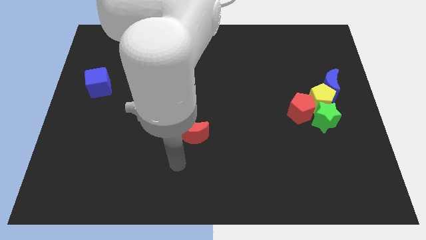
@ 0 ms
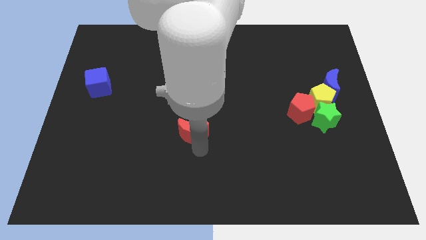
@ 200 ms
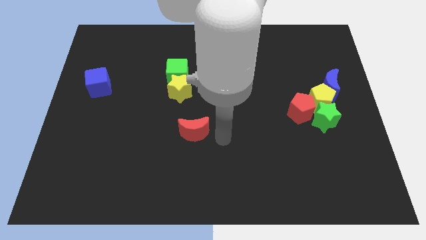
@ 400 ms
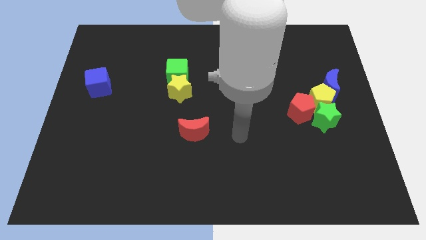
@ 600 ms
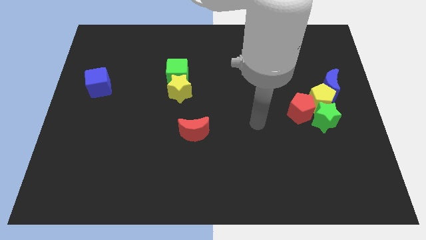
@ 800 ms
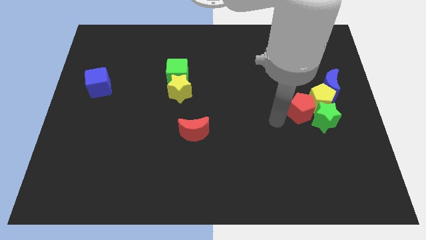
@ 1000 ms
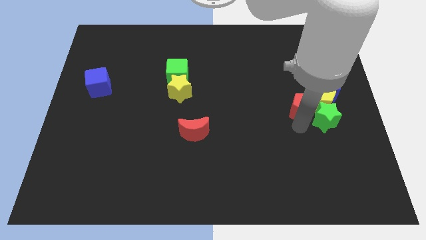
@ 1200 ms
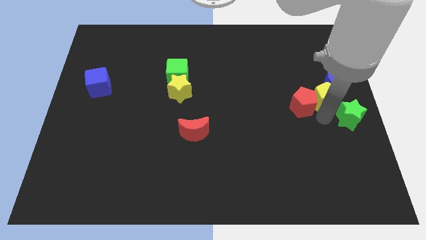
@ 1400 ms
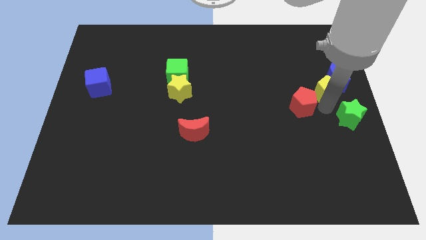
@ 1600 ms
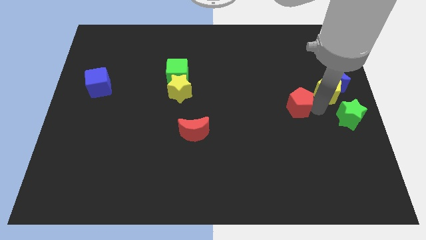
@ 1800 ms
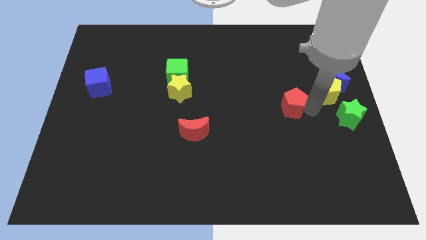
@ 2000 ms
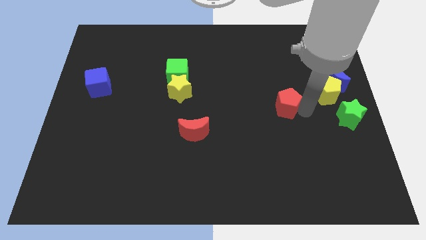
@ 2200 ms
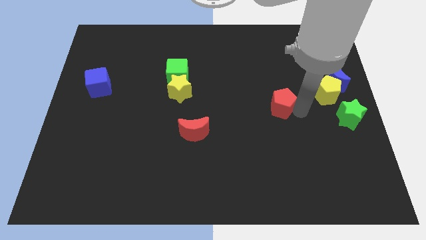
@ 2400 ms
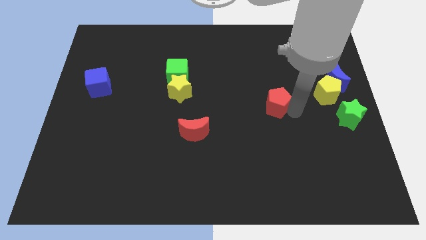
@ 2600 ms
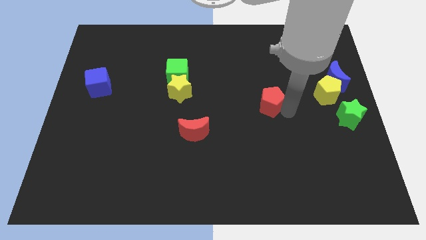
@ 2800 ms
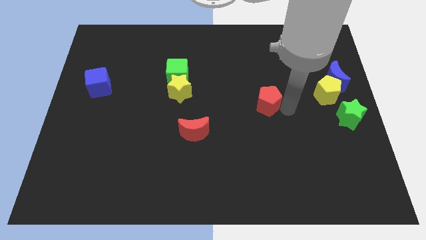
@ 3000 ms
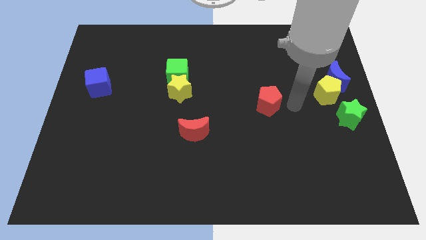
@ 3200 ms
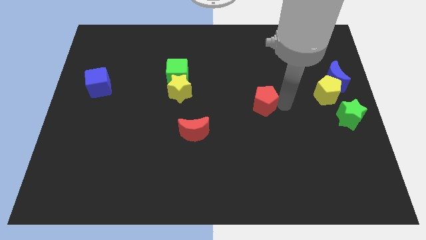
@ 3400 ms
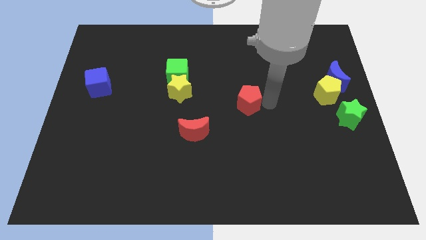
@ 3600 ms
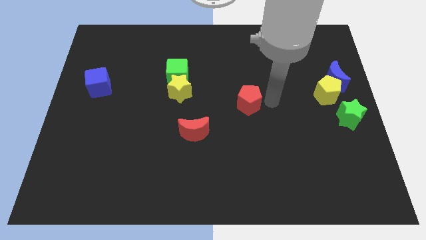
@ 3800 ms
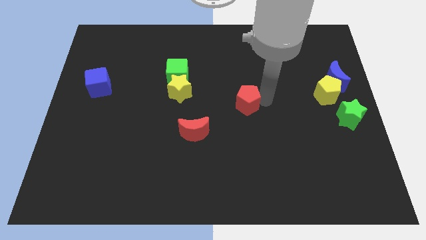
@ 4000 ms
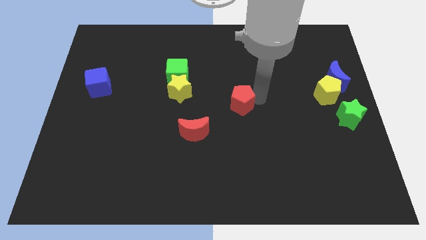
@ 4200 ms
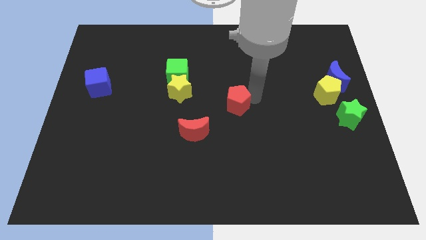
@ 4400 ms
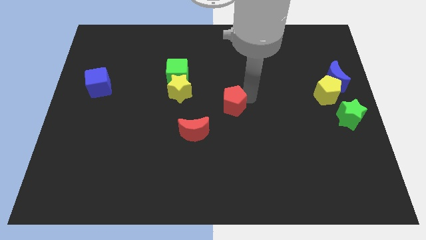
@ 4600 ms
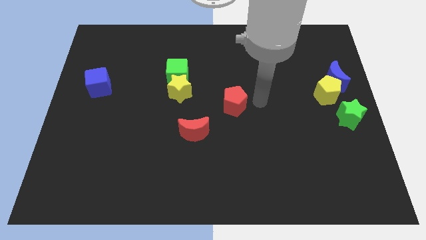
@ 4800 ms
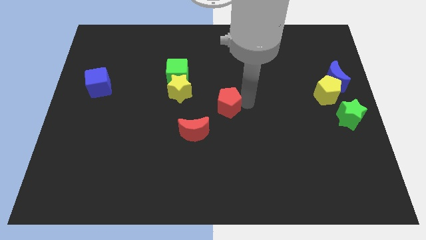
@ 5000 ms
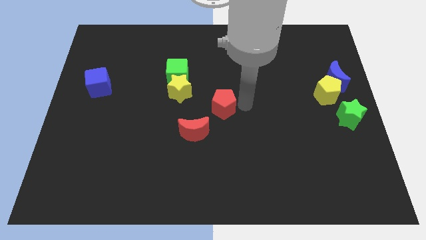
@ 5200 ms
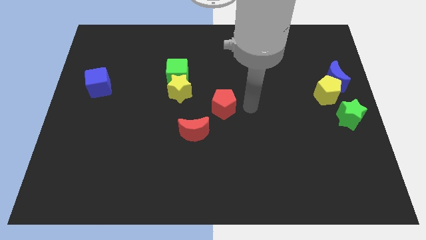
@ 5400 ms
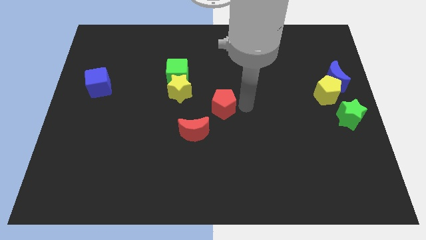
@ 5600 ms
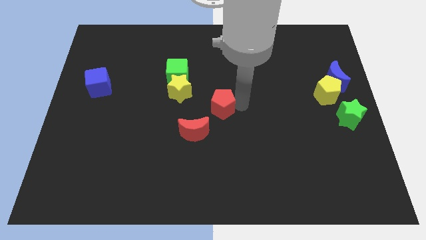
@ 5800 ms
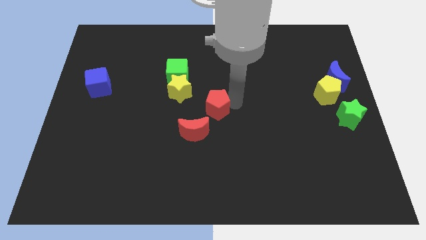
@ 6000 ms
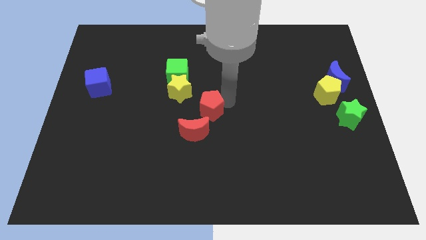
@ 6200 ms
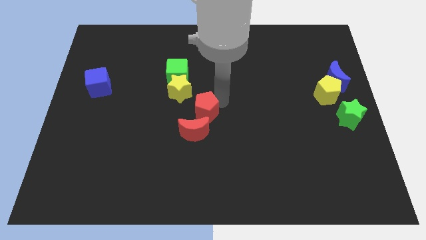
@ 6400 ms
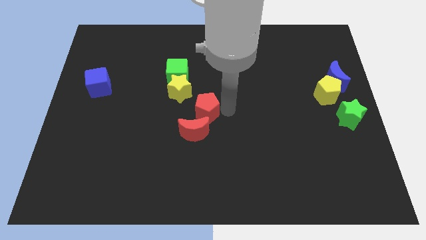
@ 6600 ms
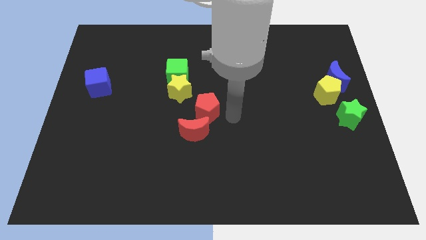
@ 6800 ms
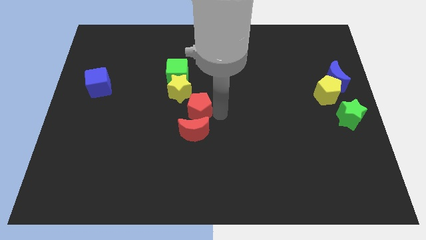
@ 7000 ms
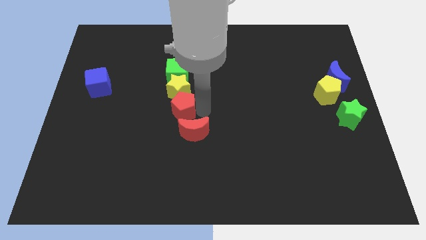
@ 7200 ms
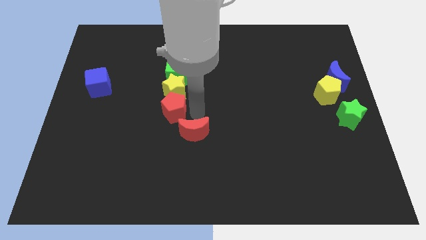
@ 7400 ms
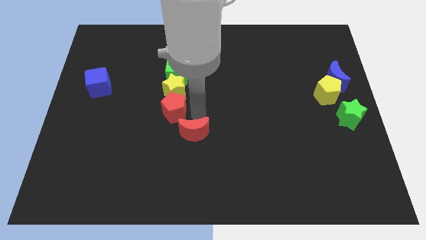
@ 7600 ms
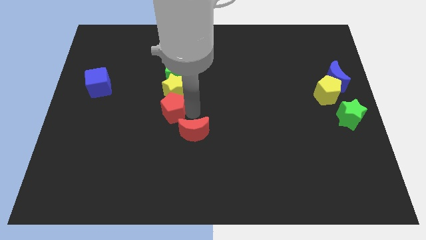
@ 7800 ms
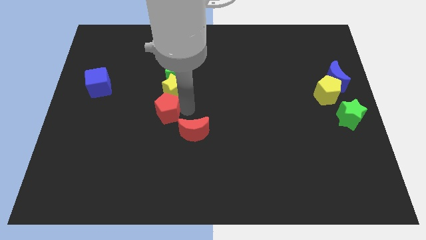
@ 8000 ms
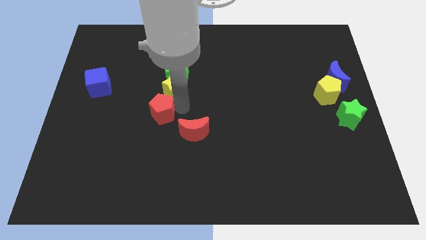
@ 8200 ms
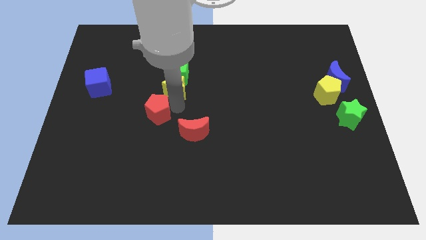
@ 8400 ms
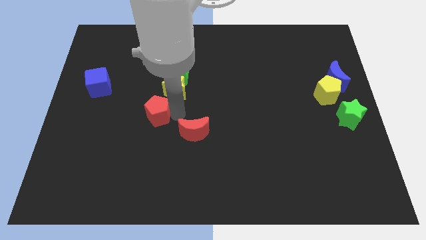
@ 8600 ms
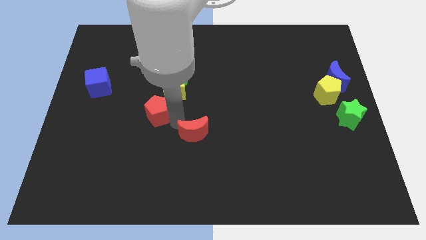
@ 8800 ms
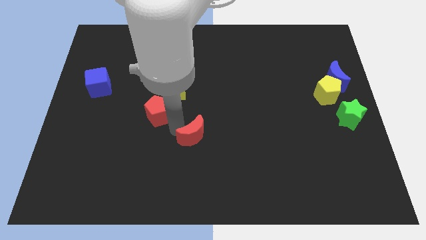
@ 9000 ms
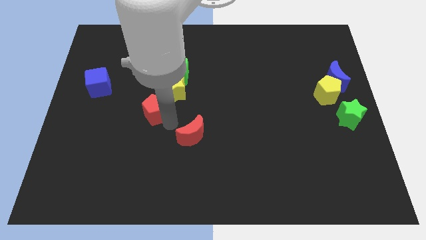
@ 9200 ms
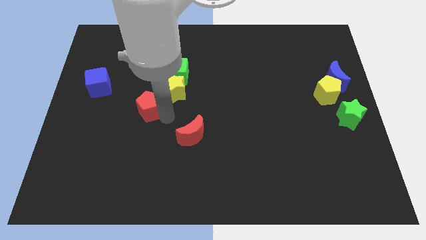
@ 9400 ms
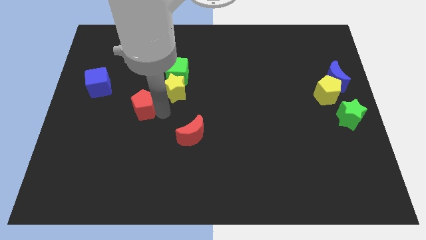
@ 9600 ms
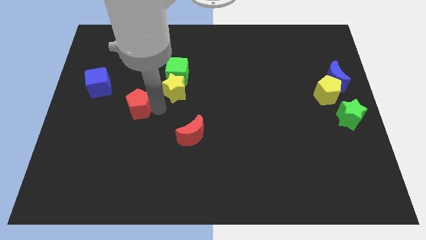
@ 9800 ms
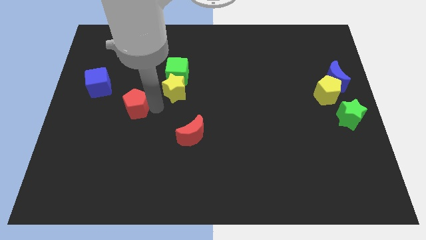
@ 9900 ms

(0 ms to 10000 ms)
put the red pentagon to the bottom right of the blue cube

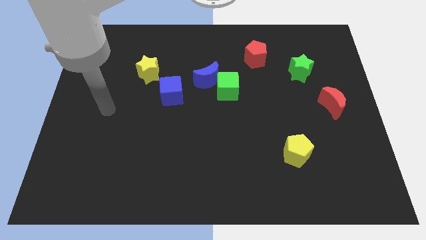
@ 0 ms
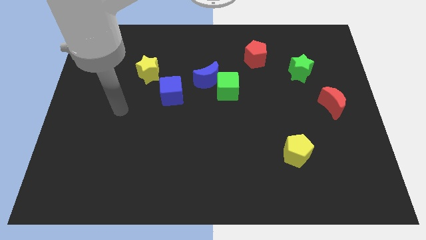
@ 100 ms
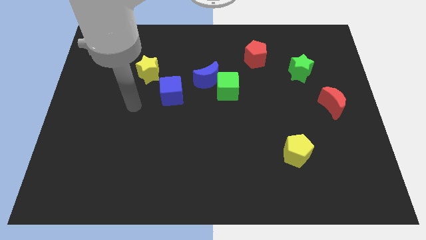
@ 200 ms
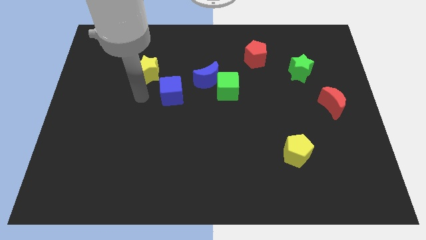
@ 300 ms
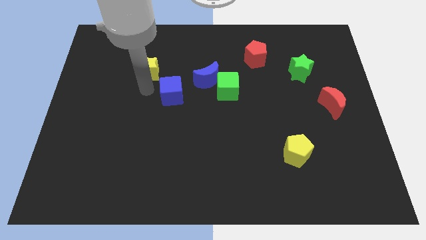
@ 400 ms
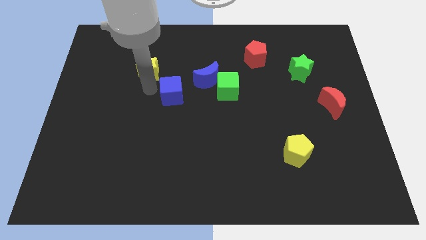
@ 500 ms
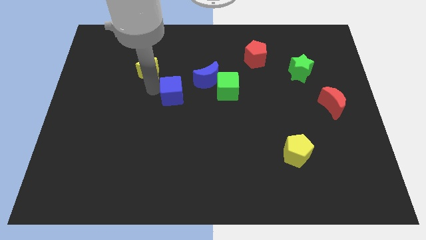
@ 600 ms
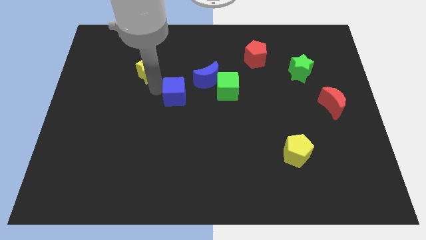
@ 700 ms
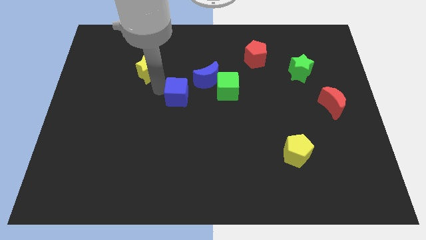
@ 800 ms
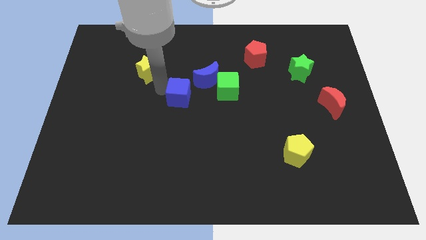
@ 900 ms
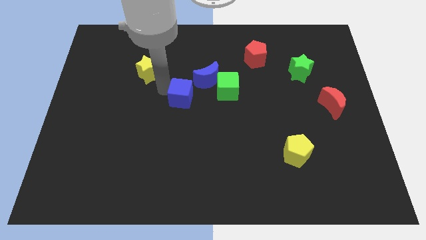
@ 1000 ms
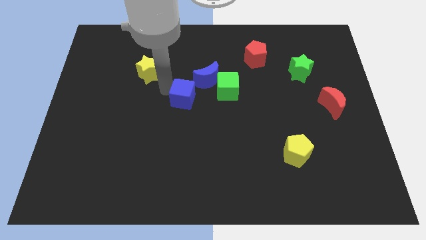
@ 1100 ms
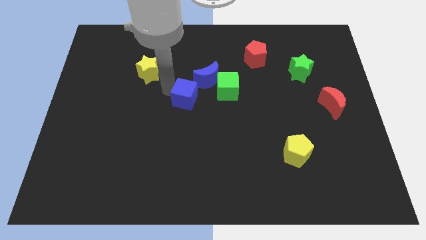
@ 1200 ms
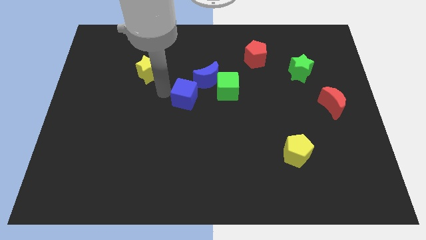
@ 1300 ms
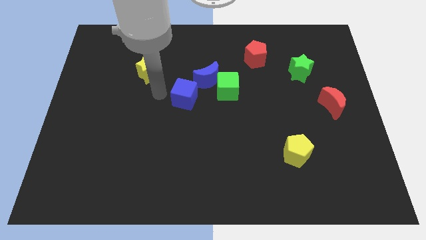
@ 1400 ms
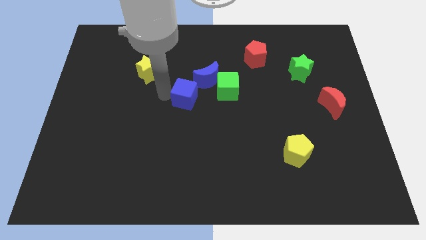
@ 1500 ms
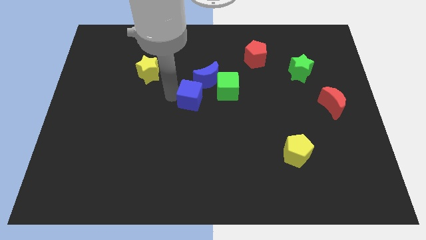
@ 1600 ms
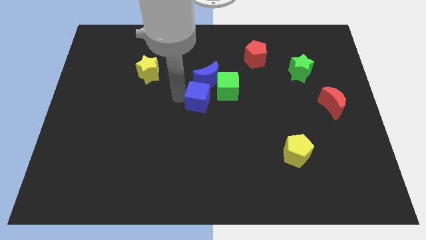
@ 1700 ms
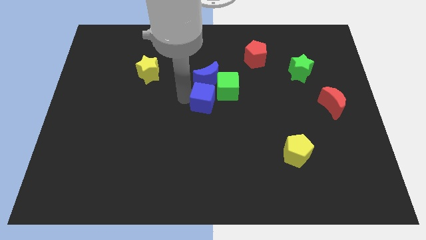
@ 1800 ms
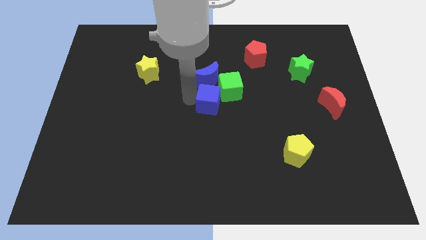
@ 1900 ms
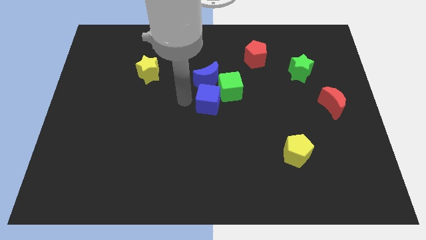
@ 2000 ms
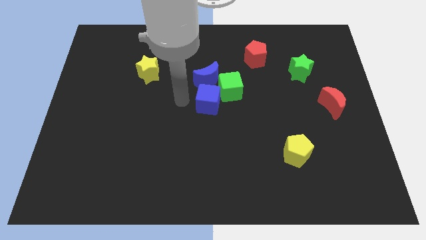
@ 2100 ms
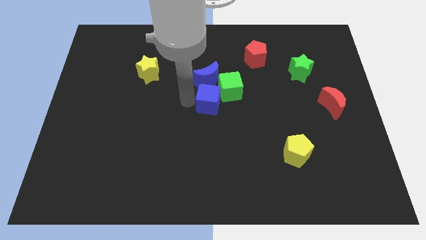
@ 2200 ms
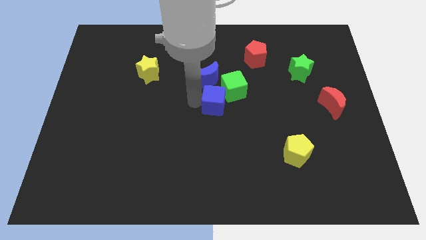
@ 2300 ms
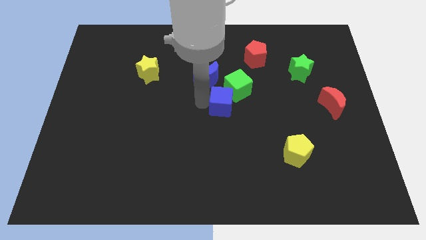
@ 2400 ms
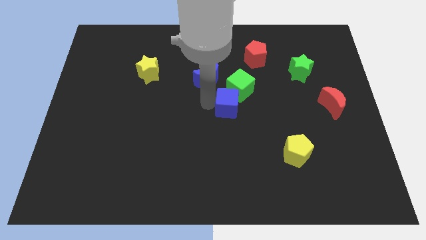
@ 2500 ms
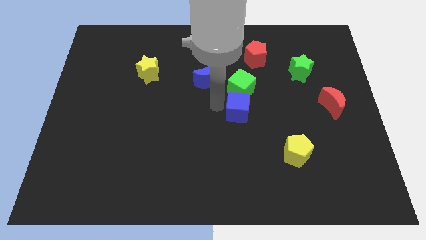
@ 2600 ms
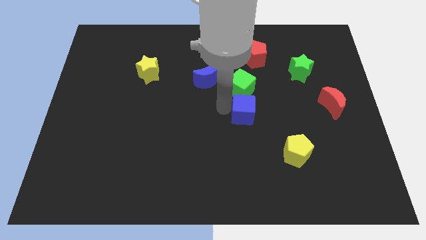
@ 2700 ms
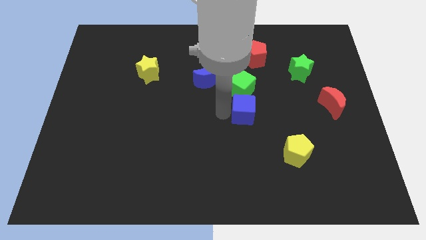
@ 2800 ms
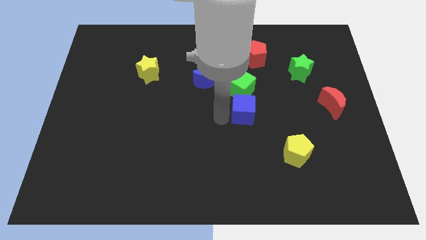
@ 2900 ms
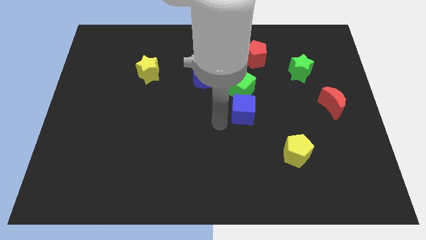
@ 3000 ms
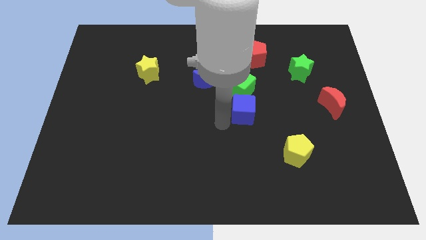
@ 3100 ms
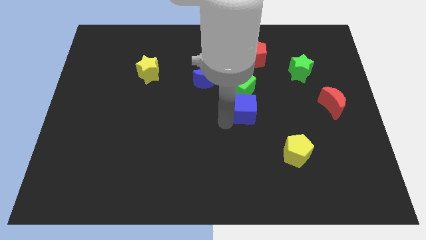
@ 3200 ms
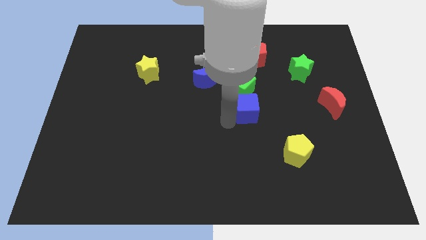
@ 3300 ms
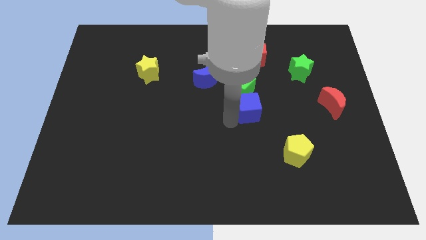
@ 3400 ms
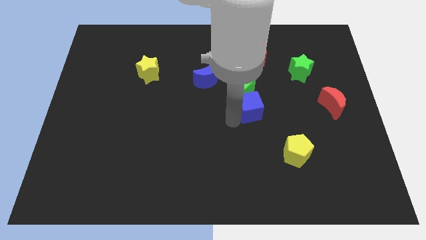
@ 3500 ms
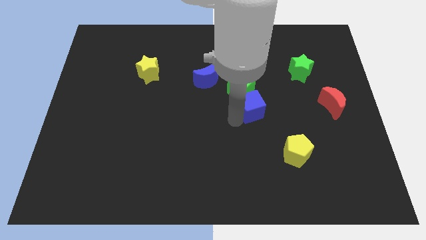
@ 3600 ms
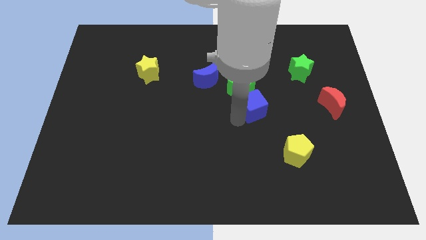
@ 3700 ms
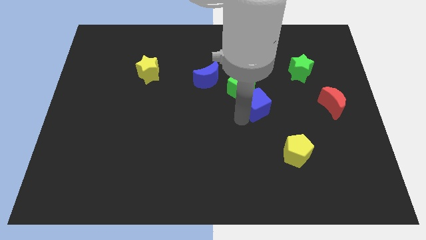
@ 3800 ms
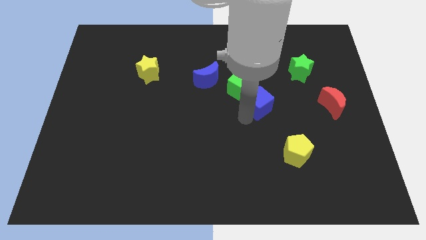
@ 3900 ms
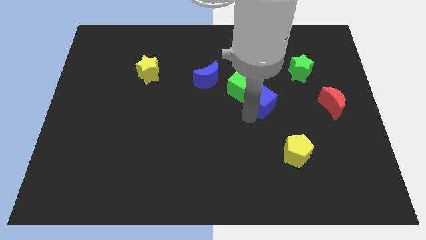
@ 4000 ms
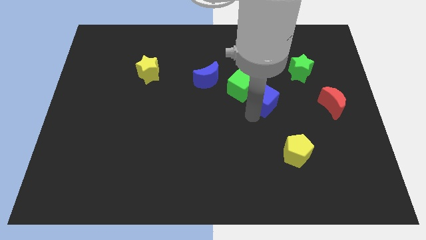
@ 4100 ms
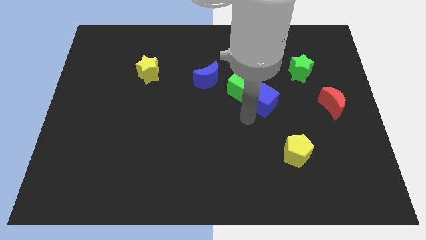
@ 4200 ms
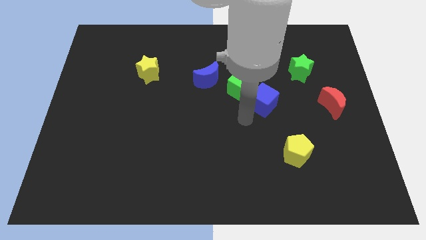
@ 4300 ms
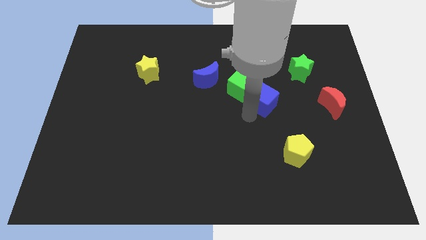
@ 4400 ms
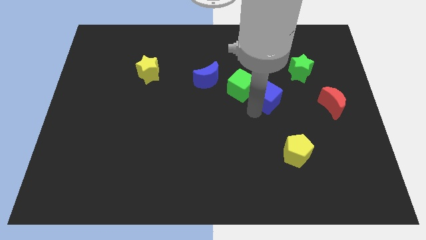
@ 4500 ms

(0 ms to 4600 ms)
put the blue cube to the bottom left of the green star
